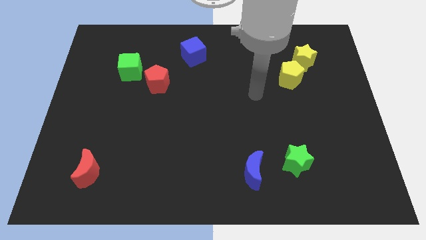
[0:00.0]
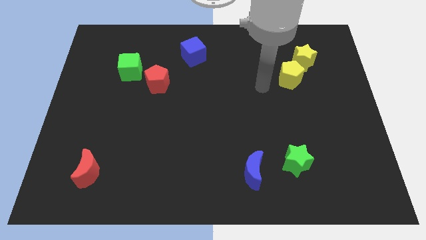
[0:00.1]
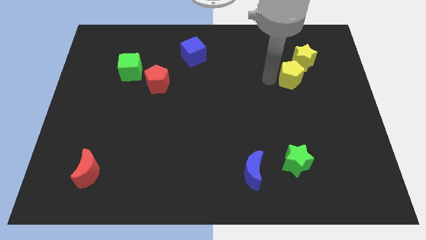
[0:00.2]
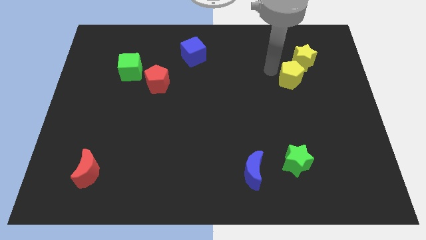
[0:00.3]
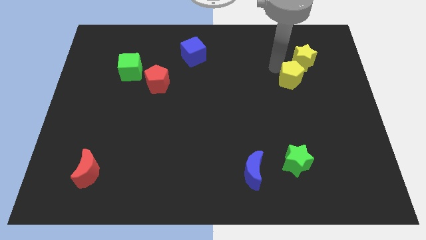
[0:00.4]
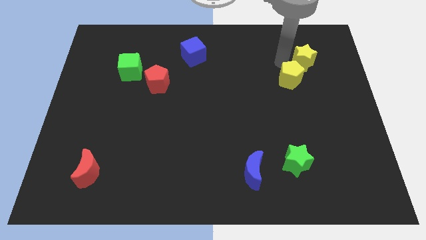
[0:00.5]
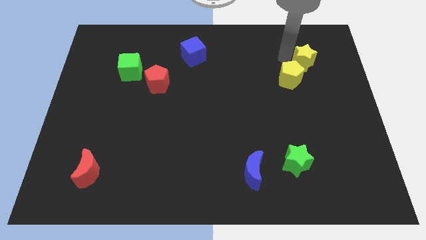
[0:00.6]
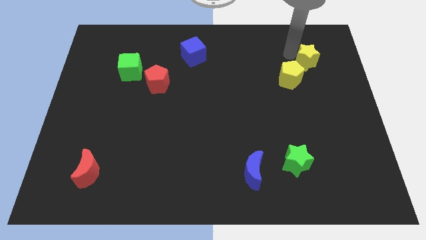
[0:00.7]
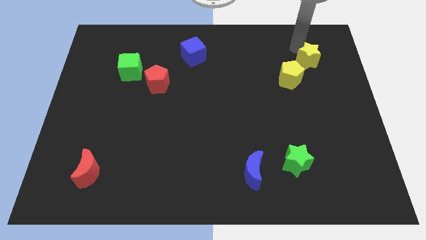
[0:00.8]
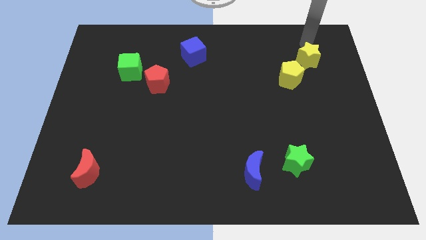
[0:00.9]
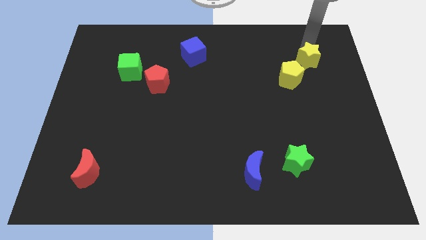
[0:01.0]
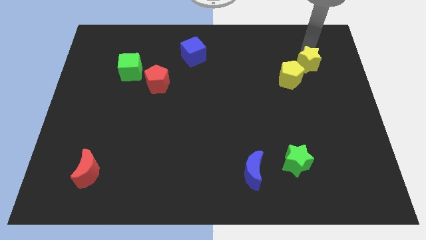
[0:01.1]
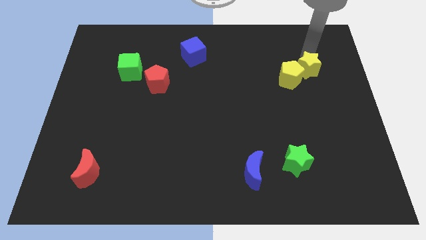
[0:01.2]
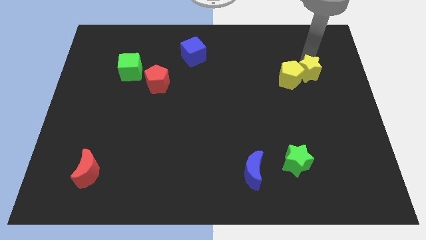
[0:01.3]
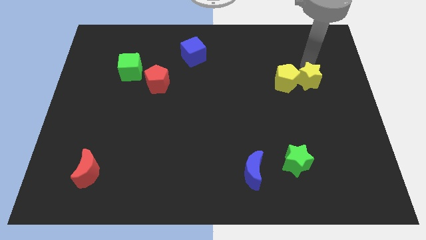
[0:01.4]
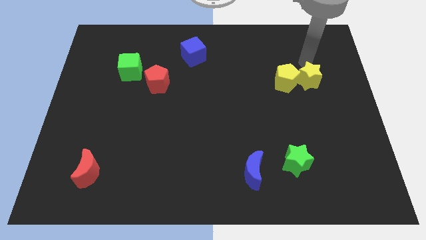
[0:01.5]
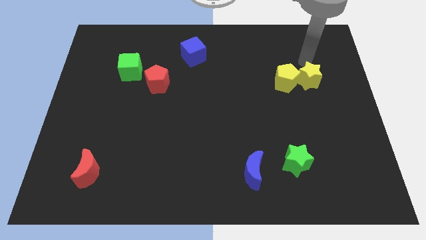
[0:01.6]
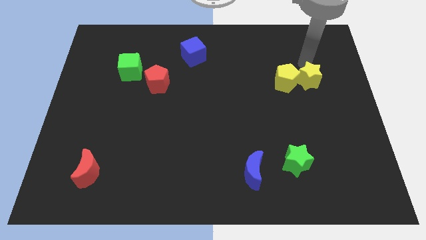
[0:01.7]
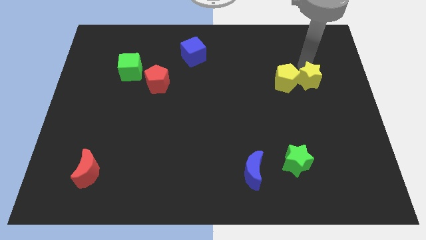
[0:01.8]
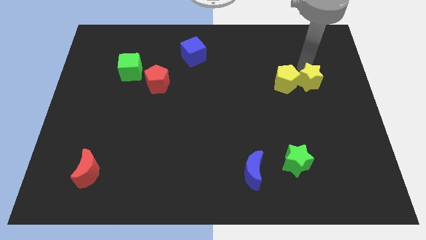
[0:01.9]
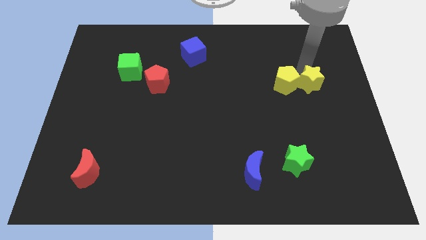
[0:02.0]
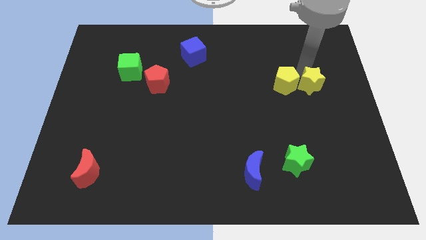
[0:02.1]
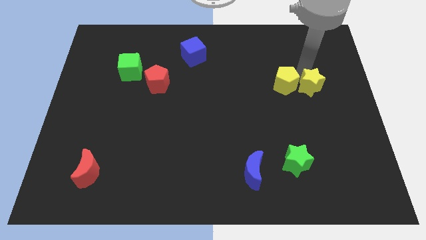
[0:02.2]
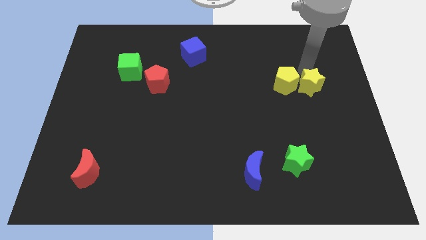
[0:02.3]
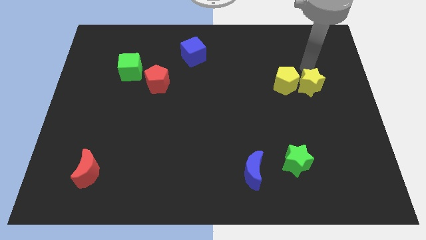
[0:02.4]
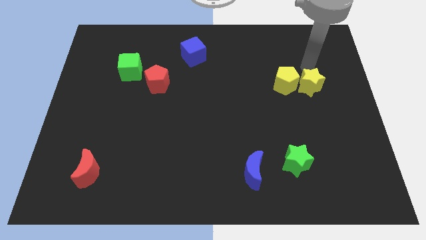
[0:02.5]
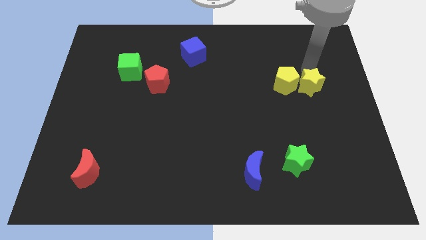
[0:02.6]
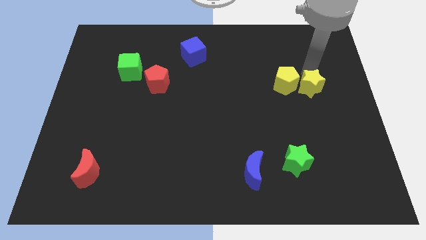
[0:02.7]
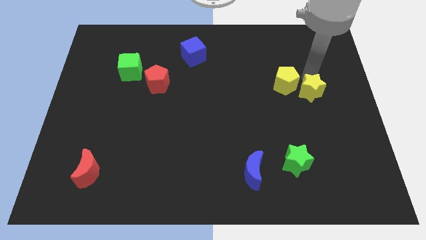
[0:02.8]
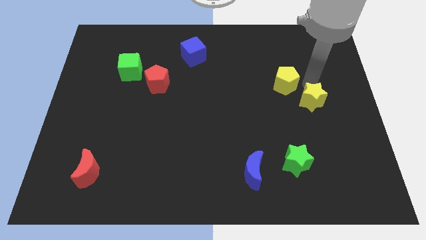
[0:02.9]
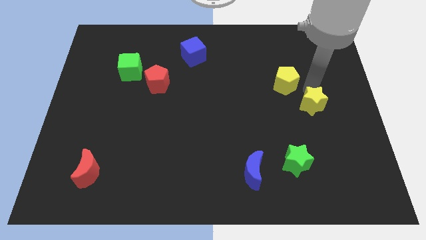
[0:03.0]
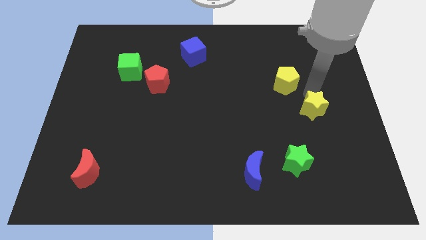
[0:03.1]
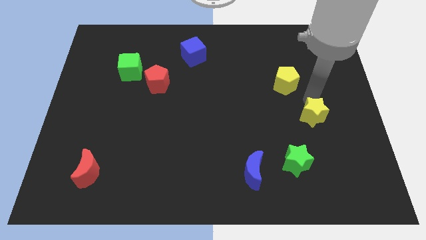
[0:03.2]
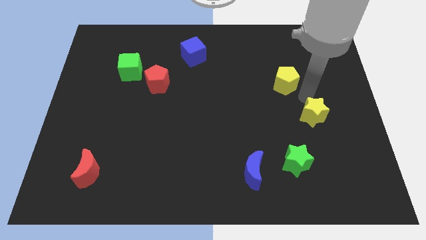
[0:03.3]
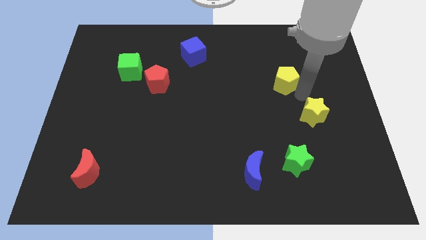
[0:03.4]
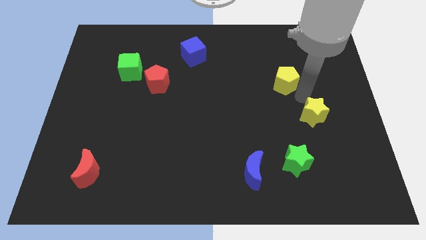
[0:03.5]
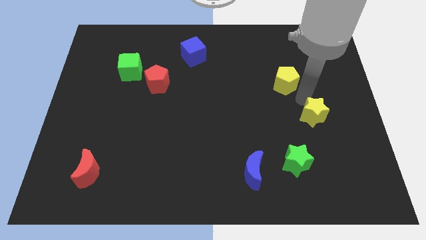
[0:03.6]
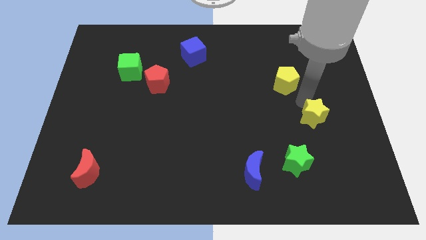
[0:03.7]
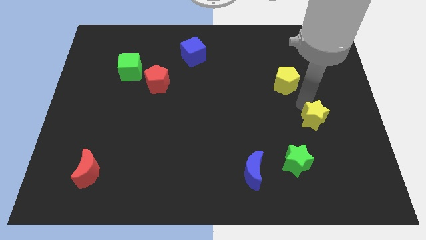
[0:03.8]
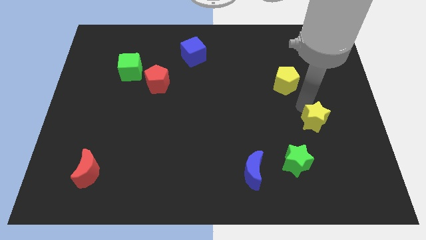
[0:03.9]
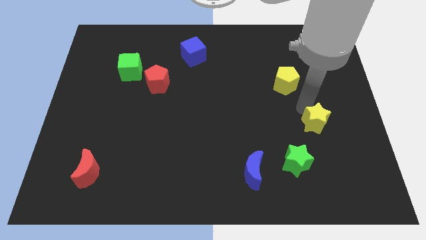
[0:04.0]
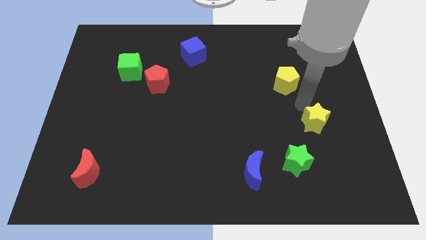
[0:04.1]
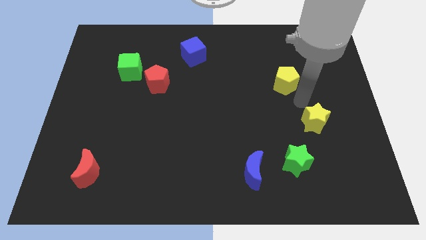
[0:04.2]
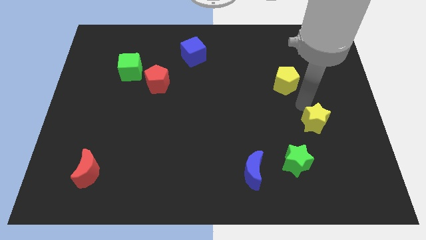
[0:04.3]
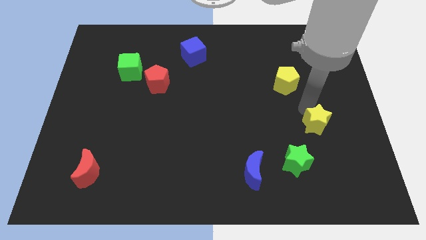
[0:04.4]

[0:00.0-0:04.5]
push the yellow star downwards

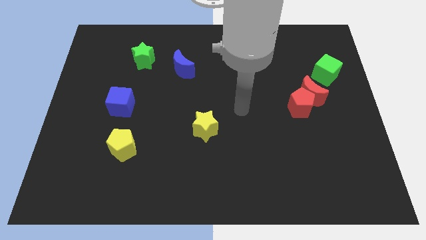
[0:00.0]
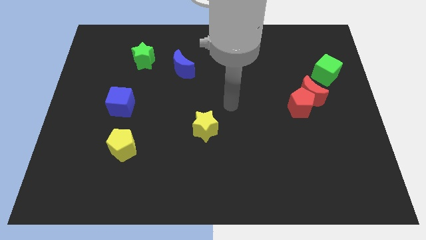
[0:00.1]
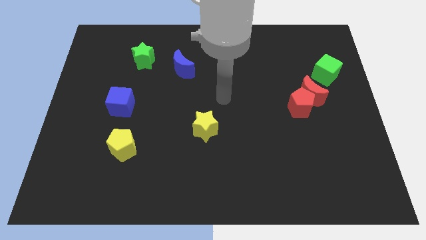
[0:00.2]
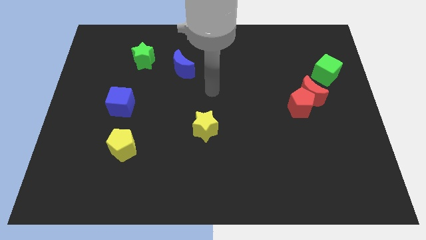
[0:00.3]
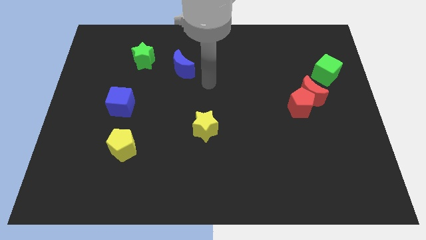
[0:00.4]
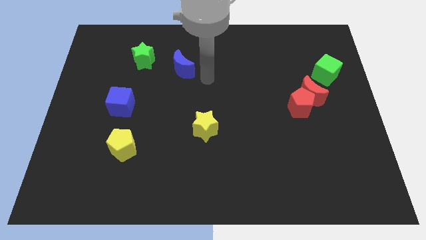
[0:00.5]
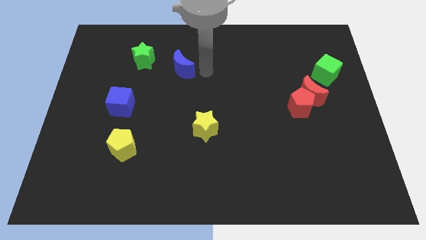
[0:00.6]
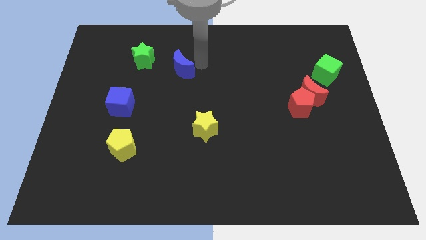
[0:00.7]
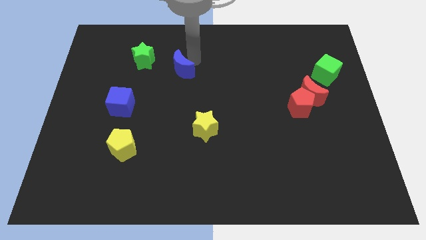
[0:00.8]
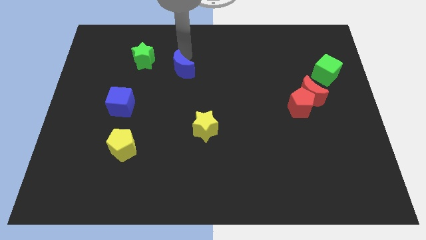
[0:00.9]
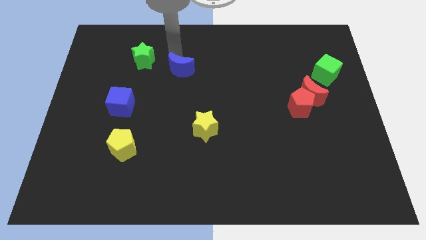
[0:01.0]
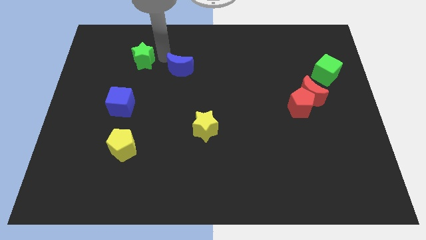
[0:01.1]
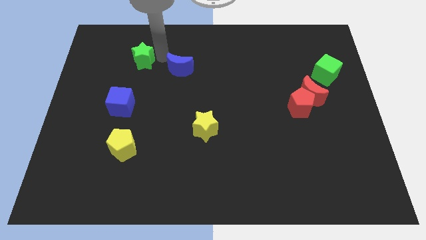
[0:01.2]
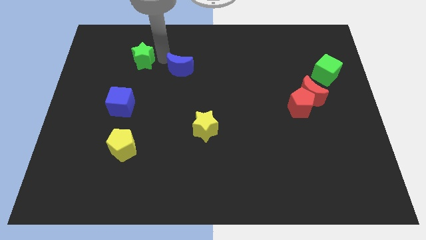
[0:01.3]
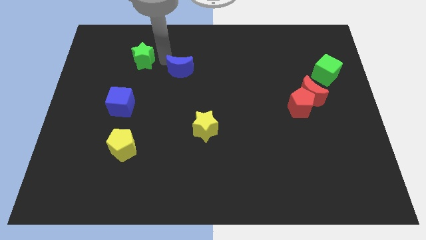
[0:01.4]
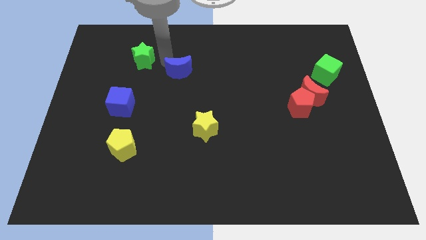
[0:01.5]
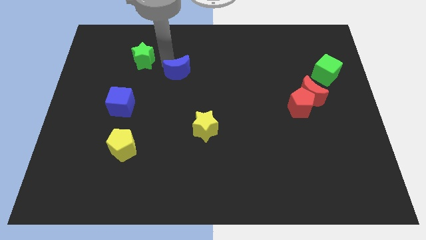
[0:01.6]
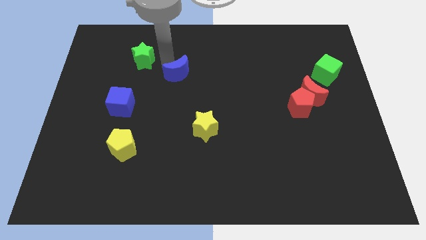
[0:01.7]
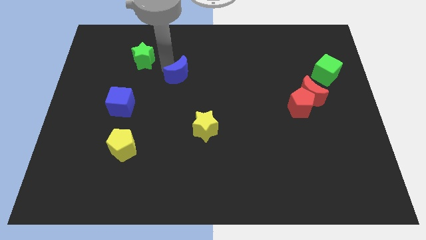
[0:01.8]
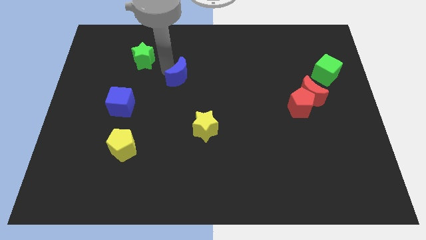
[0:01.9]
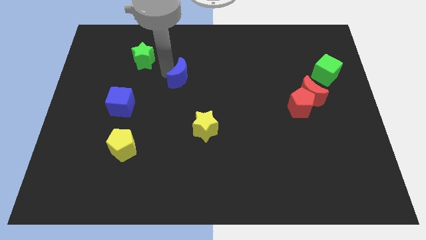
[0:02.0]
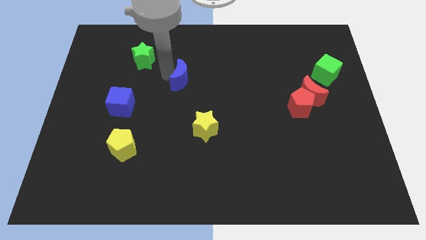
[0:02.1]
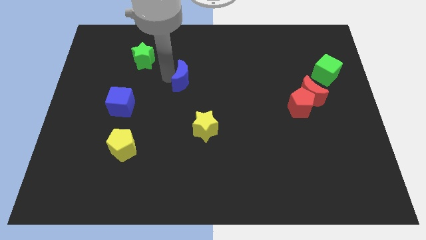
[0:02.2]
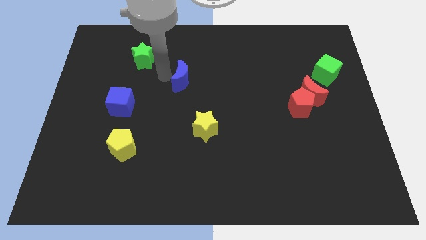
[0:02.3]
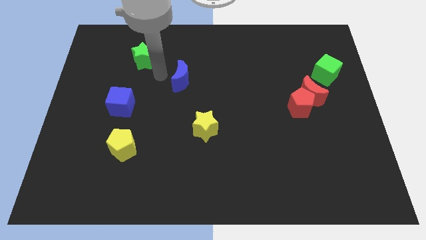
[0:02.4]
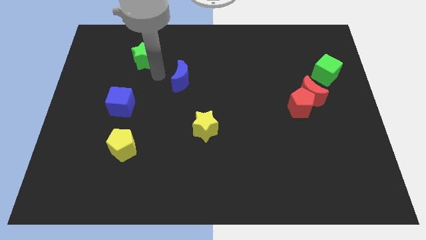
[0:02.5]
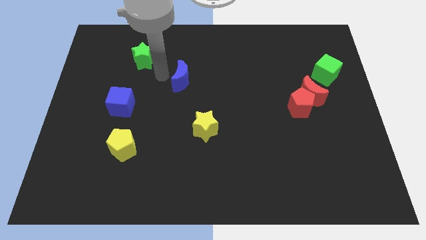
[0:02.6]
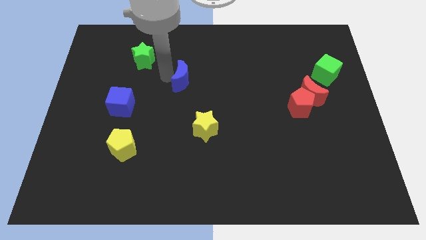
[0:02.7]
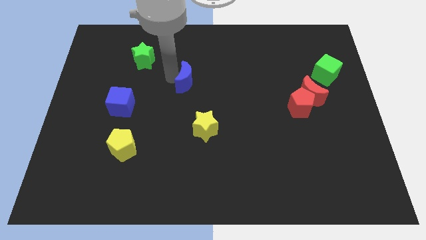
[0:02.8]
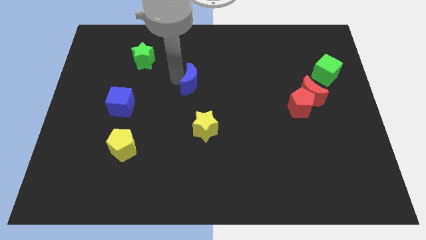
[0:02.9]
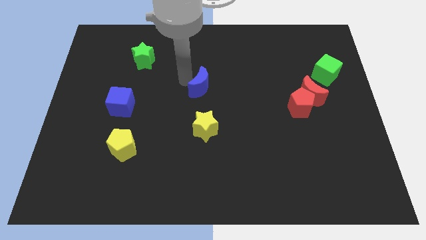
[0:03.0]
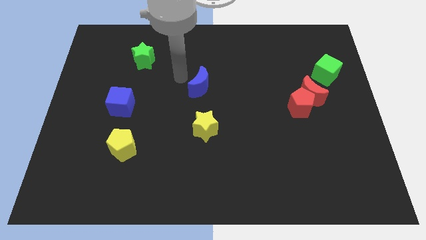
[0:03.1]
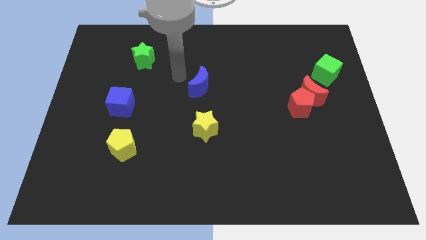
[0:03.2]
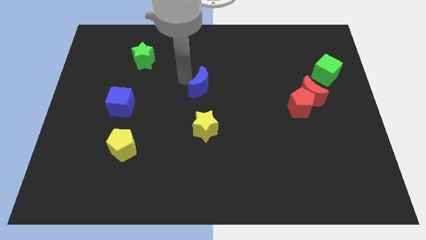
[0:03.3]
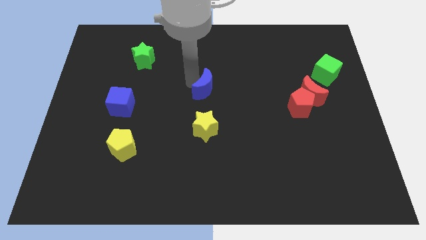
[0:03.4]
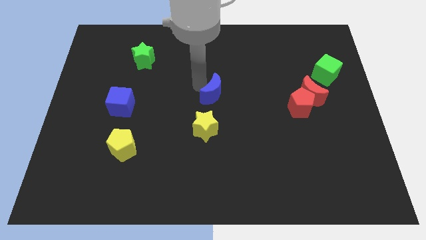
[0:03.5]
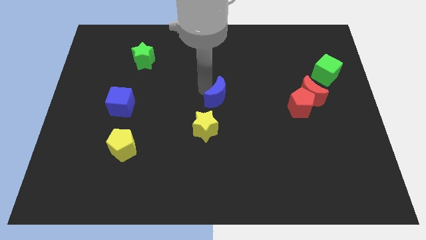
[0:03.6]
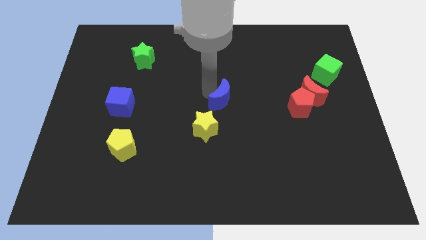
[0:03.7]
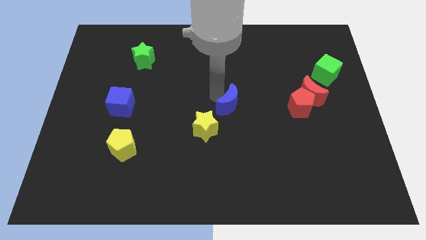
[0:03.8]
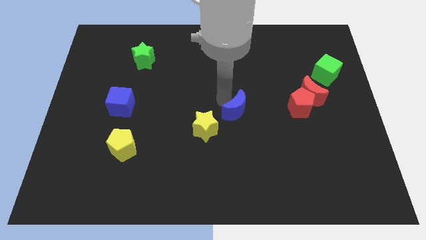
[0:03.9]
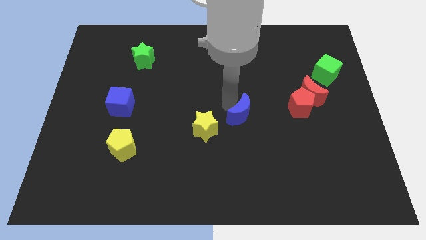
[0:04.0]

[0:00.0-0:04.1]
slide the blue moon down and to the right
